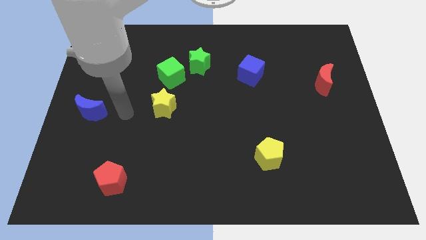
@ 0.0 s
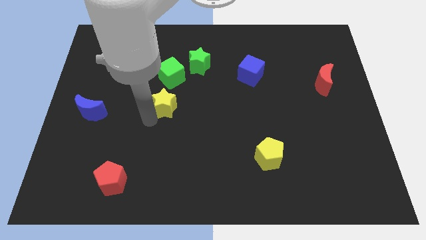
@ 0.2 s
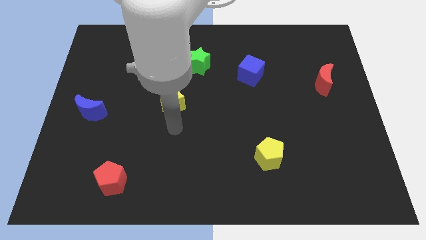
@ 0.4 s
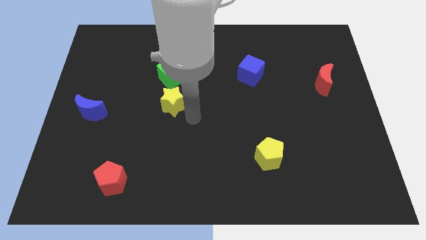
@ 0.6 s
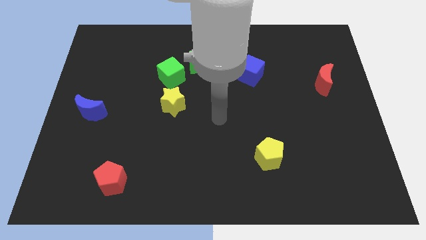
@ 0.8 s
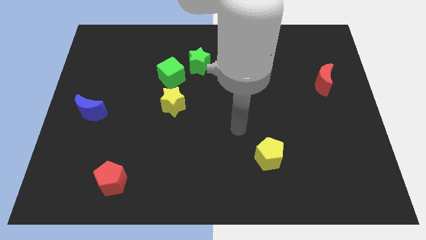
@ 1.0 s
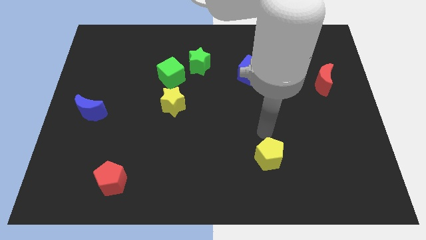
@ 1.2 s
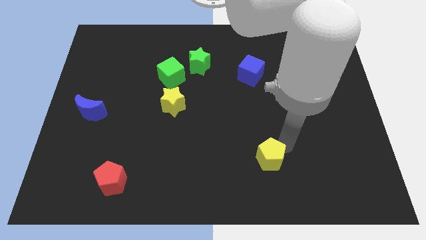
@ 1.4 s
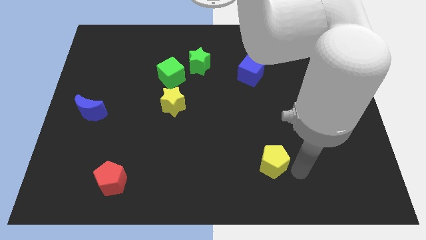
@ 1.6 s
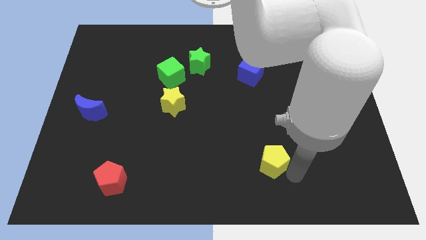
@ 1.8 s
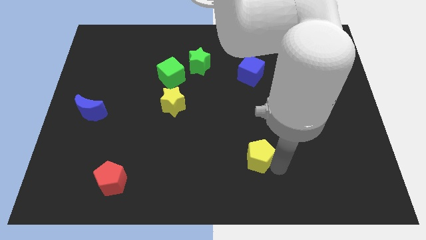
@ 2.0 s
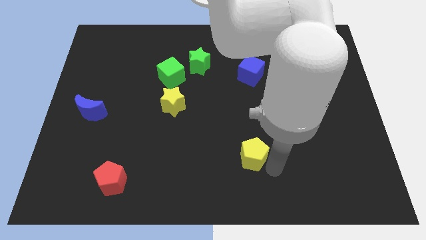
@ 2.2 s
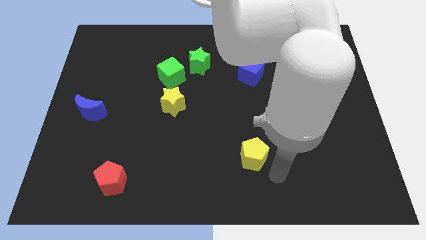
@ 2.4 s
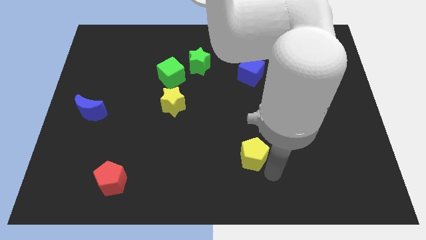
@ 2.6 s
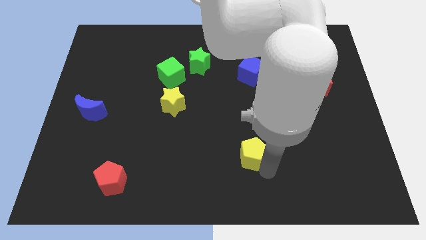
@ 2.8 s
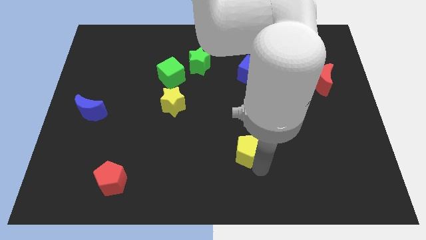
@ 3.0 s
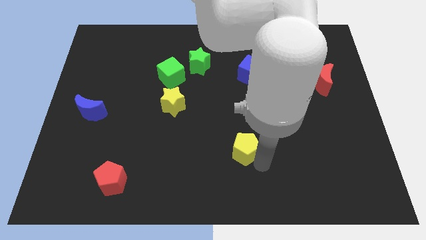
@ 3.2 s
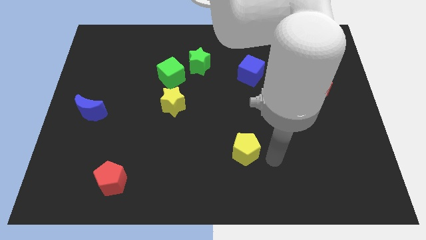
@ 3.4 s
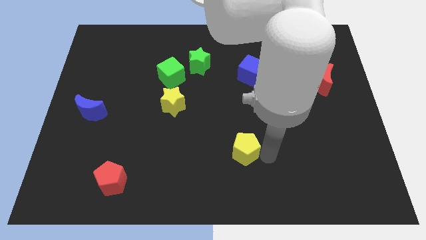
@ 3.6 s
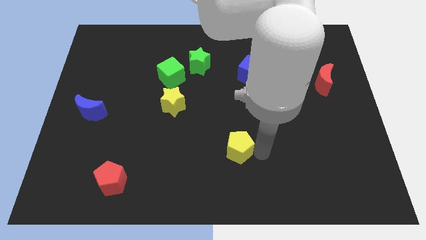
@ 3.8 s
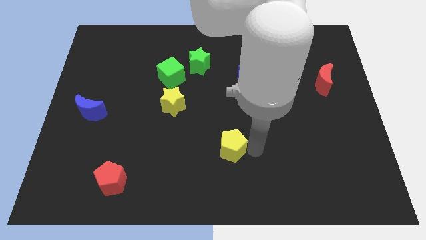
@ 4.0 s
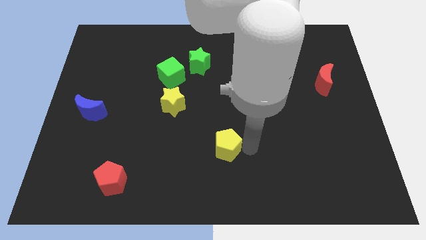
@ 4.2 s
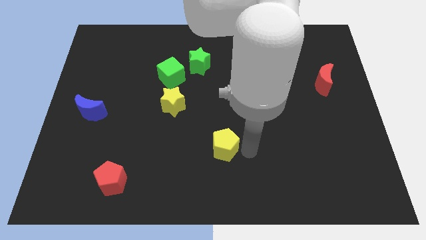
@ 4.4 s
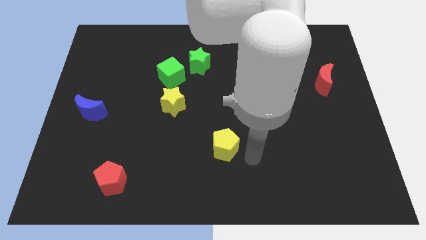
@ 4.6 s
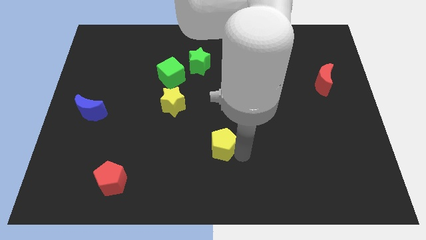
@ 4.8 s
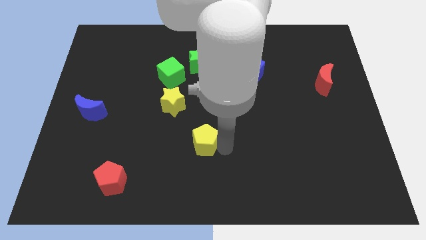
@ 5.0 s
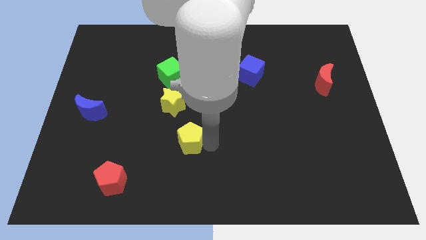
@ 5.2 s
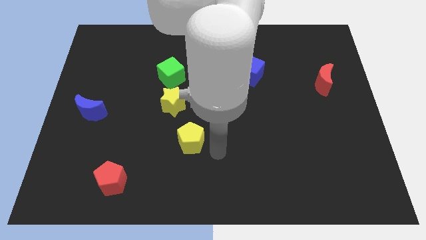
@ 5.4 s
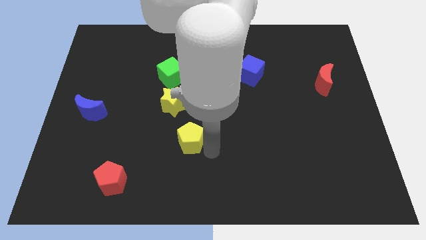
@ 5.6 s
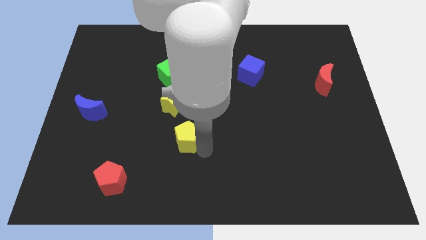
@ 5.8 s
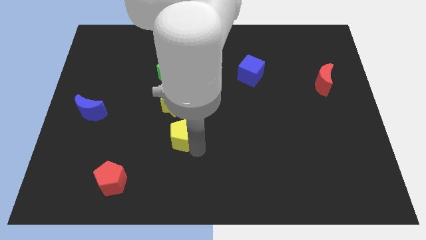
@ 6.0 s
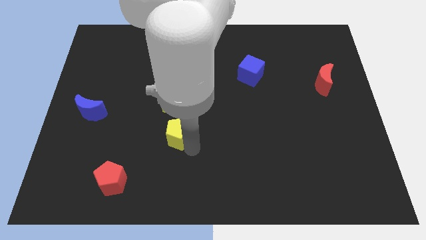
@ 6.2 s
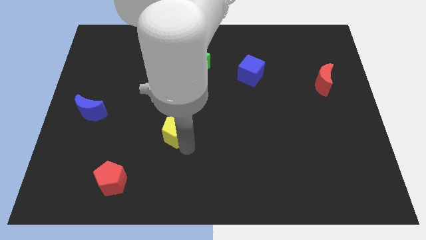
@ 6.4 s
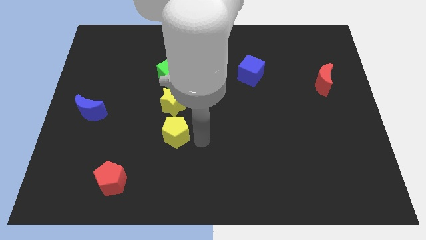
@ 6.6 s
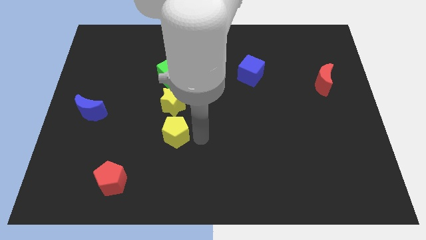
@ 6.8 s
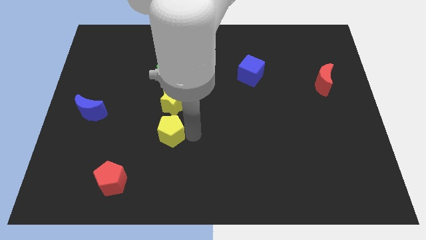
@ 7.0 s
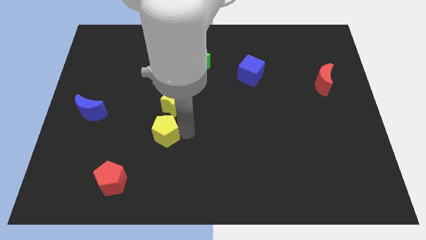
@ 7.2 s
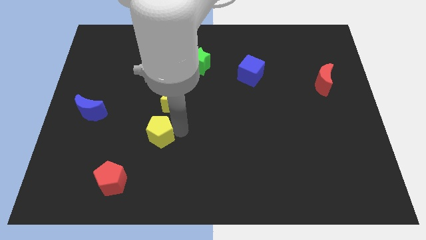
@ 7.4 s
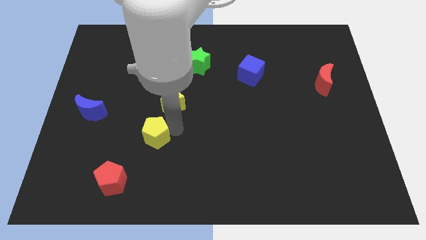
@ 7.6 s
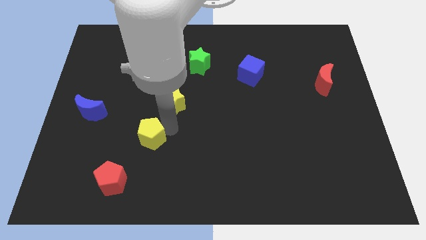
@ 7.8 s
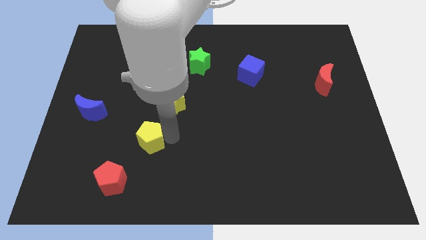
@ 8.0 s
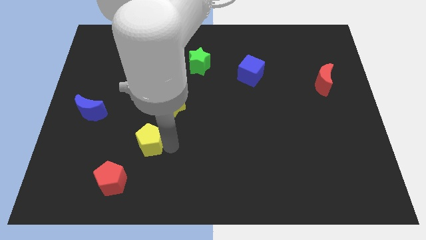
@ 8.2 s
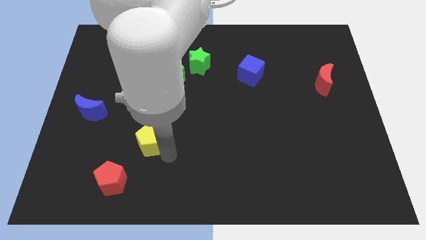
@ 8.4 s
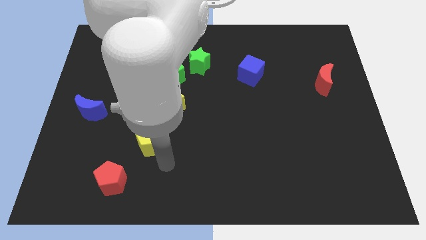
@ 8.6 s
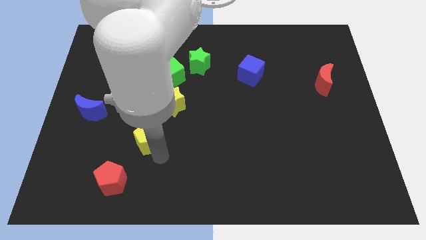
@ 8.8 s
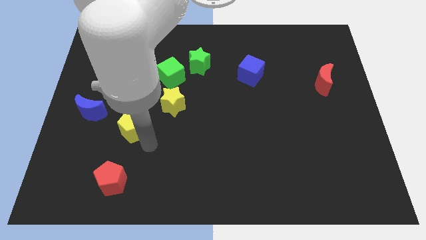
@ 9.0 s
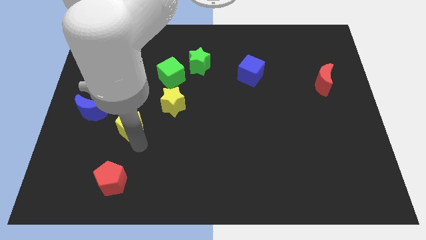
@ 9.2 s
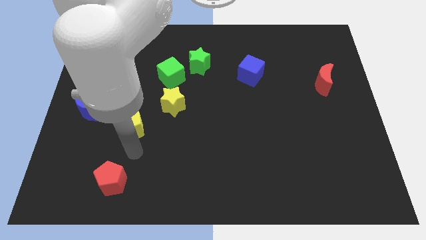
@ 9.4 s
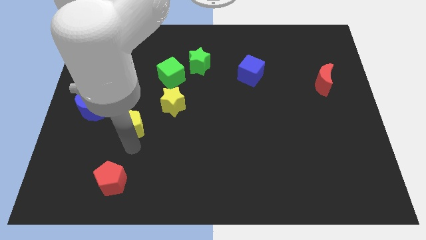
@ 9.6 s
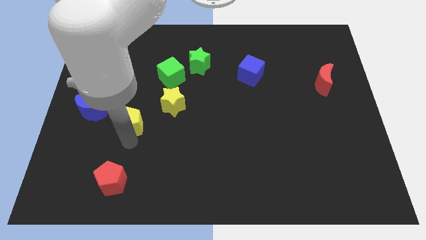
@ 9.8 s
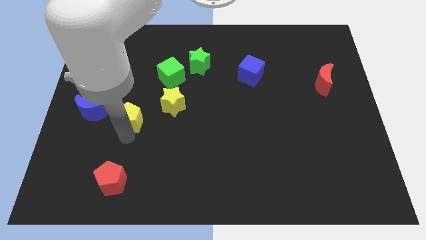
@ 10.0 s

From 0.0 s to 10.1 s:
put the yellow pentagon just left of the yellow star

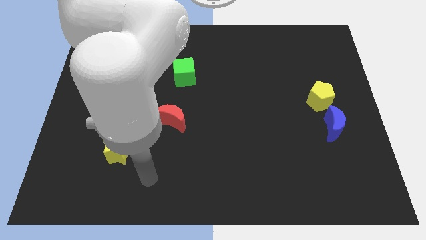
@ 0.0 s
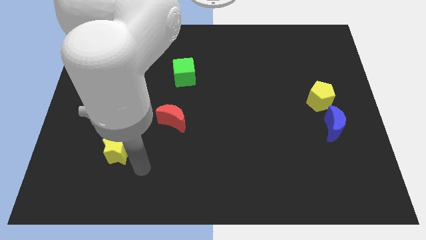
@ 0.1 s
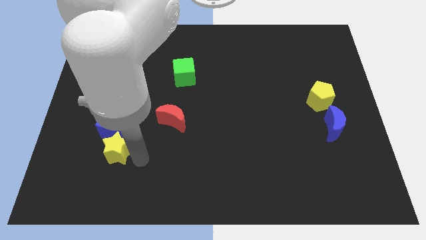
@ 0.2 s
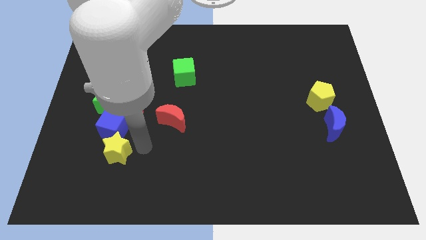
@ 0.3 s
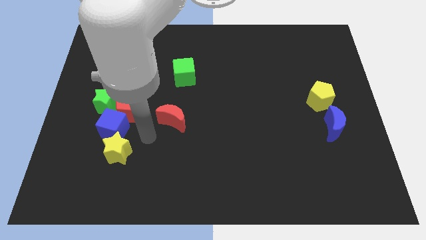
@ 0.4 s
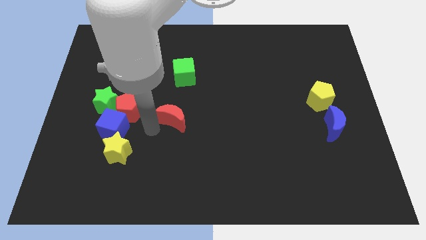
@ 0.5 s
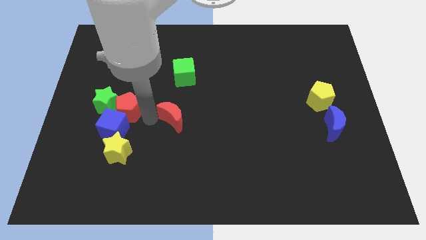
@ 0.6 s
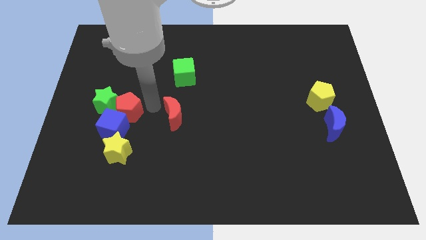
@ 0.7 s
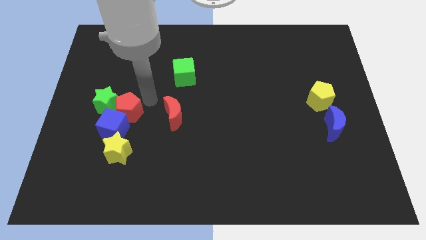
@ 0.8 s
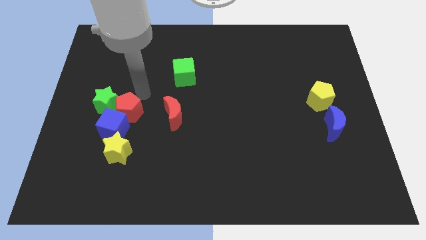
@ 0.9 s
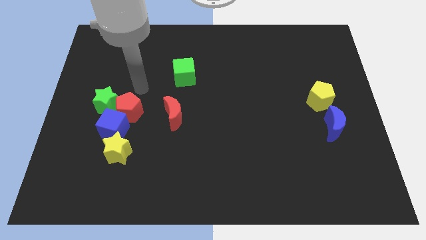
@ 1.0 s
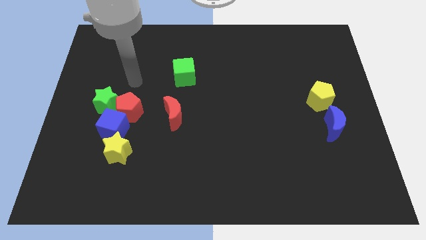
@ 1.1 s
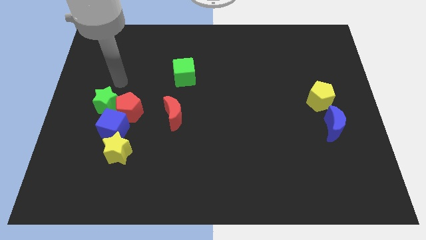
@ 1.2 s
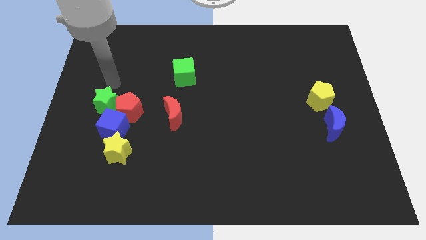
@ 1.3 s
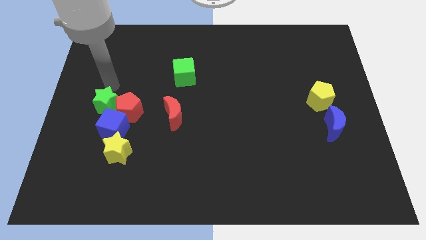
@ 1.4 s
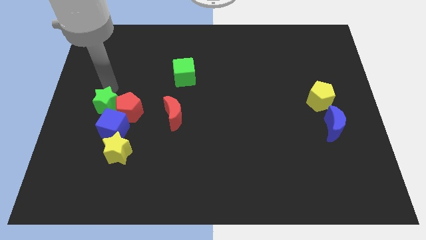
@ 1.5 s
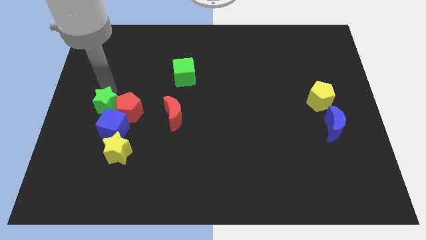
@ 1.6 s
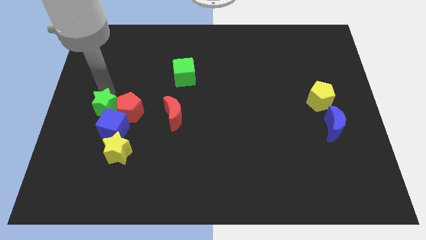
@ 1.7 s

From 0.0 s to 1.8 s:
slide the green star to the bottom left side of the red pentagon
